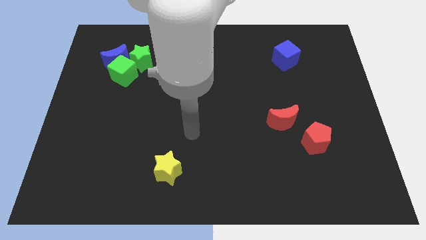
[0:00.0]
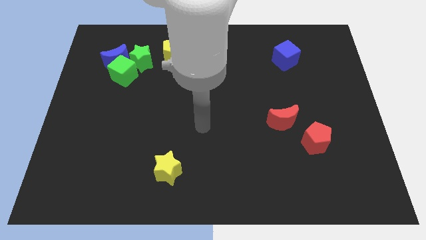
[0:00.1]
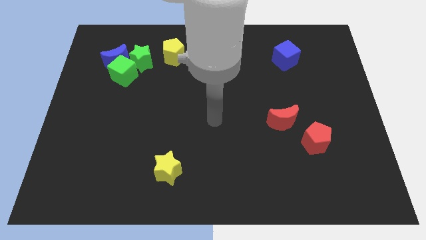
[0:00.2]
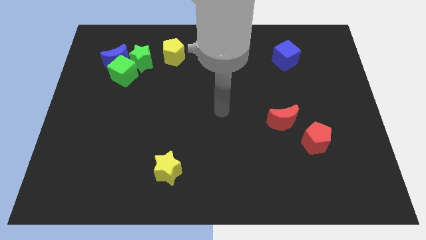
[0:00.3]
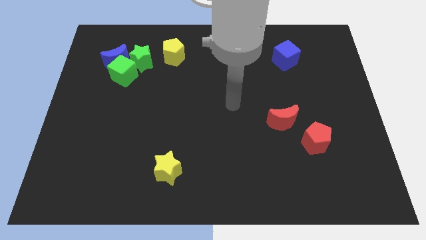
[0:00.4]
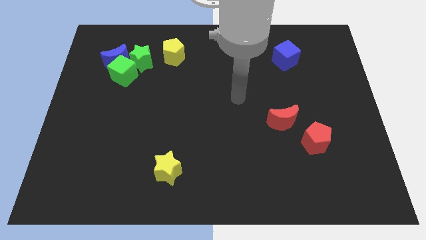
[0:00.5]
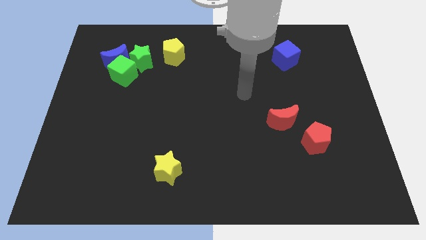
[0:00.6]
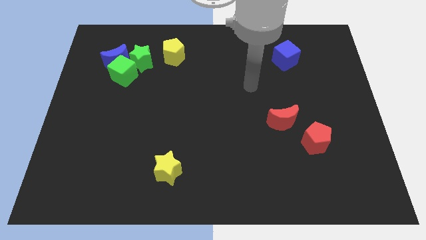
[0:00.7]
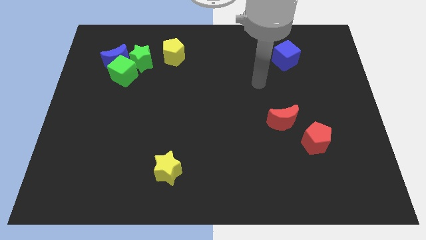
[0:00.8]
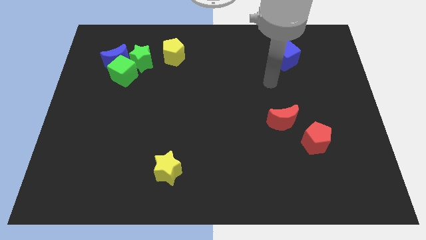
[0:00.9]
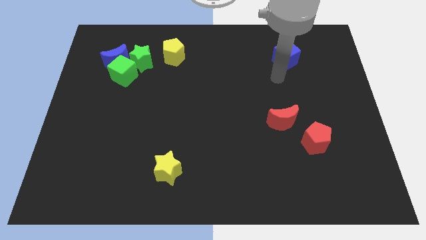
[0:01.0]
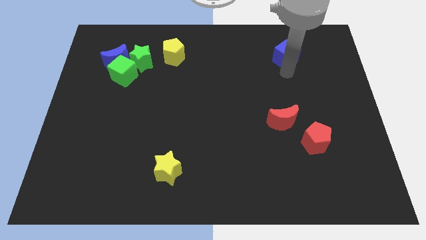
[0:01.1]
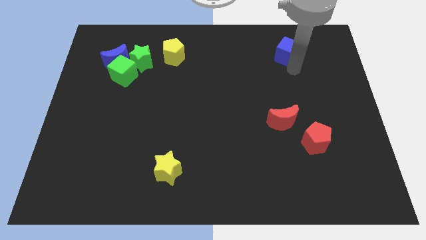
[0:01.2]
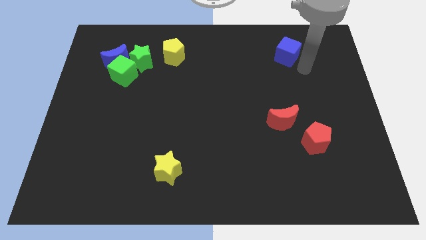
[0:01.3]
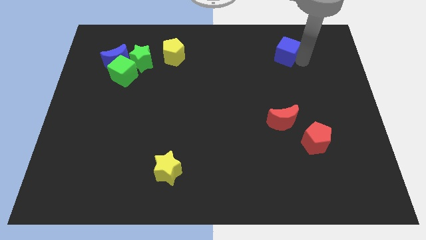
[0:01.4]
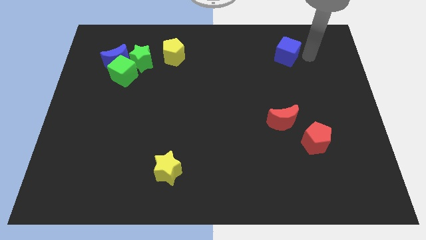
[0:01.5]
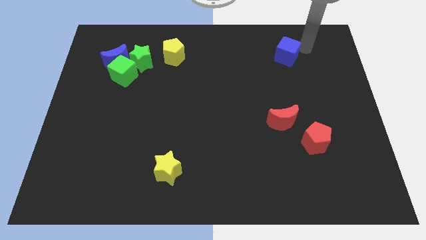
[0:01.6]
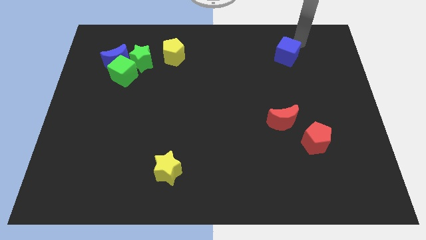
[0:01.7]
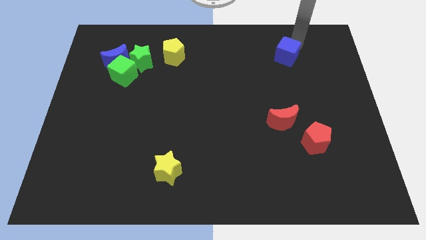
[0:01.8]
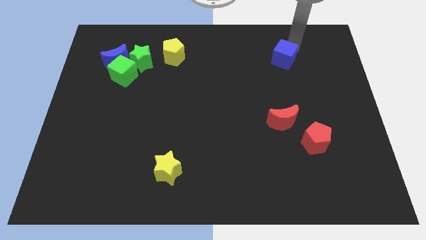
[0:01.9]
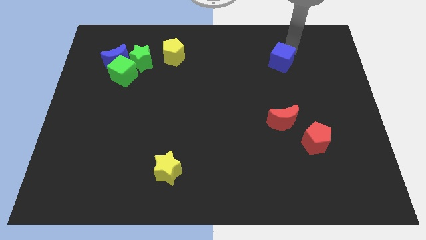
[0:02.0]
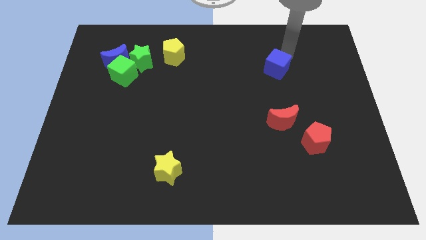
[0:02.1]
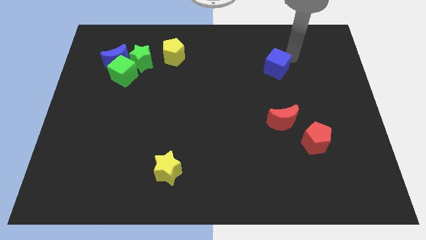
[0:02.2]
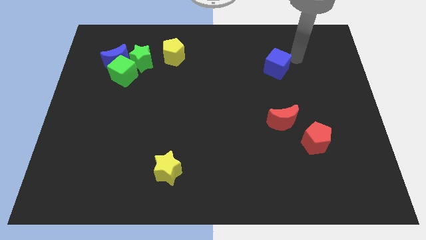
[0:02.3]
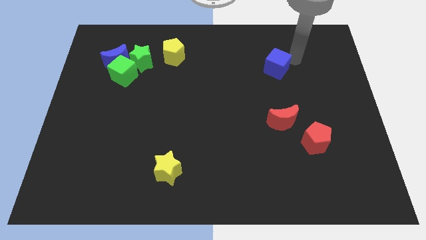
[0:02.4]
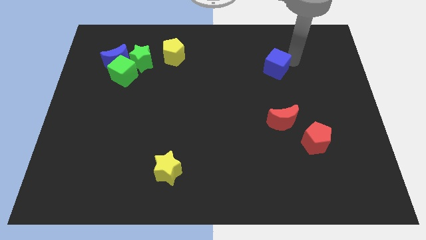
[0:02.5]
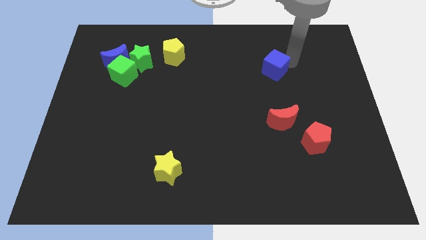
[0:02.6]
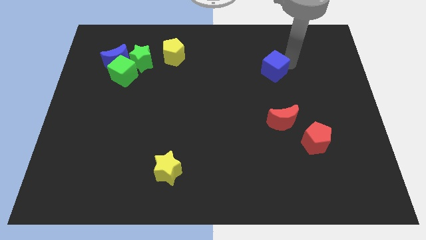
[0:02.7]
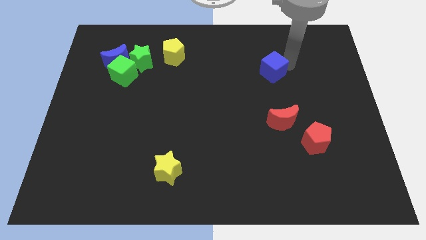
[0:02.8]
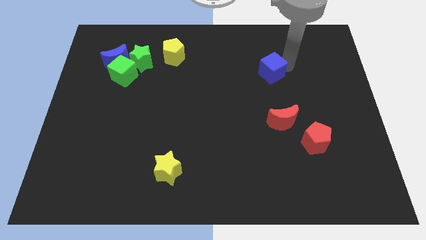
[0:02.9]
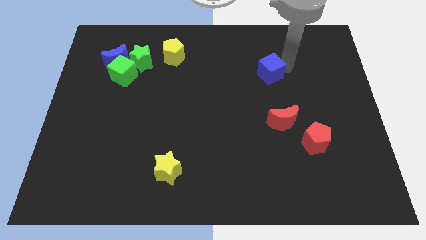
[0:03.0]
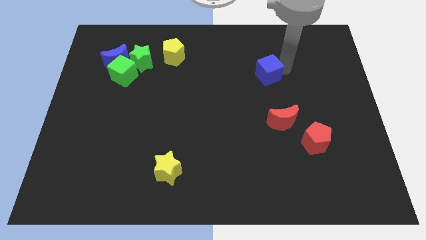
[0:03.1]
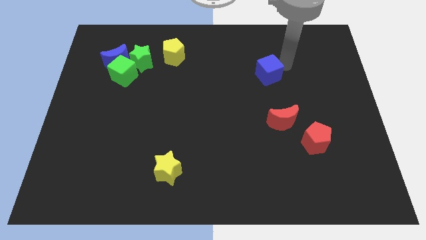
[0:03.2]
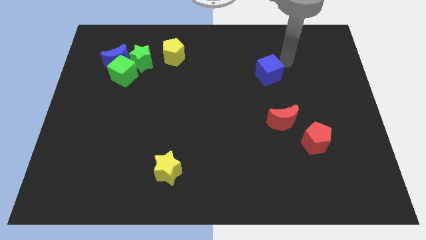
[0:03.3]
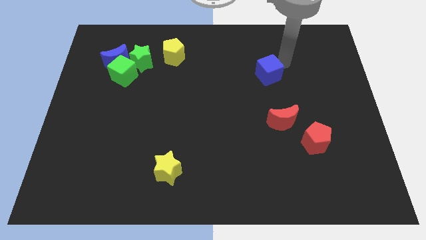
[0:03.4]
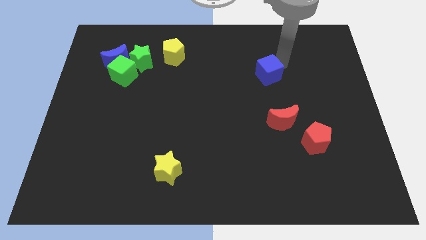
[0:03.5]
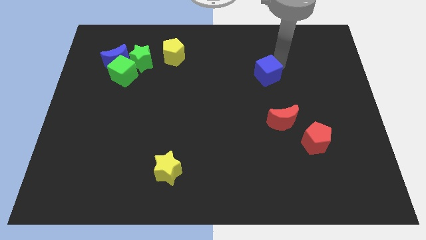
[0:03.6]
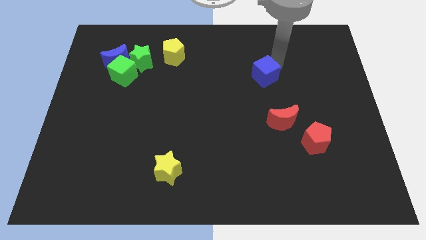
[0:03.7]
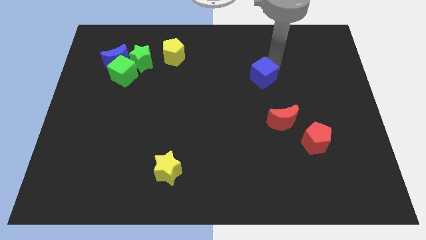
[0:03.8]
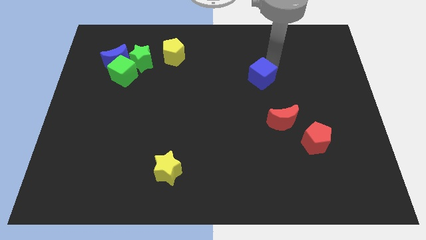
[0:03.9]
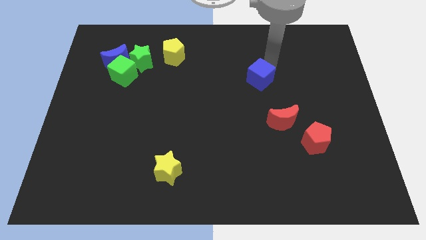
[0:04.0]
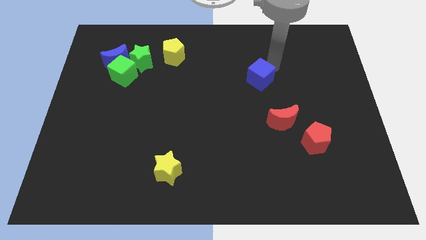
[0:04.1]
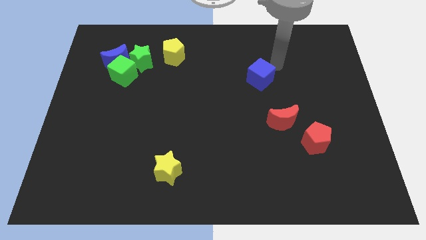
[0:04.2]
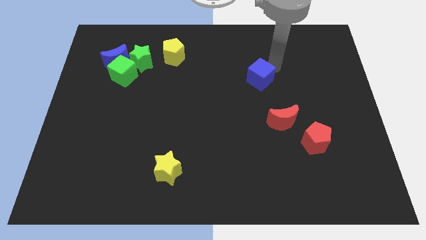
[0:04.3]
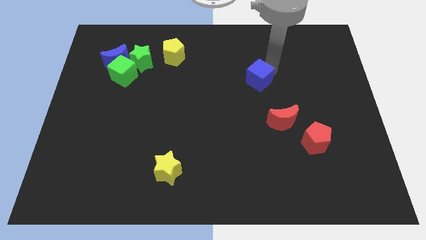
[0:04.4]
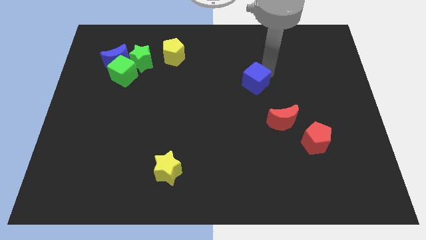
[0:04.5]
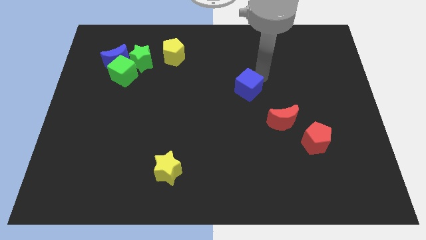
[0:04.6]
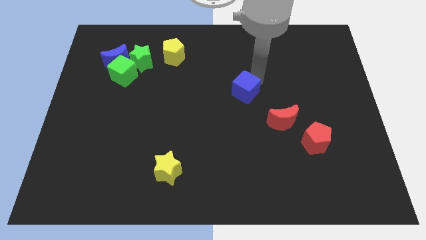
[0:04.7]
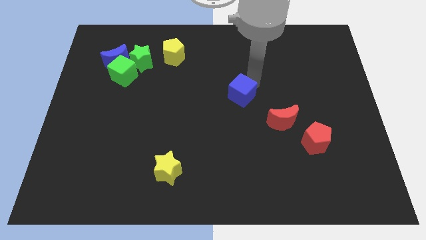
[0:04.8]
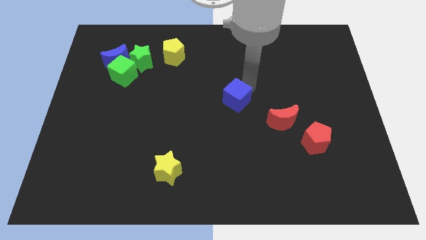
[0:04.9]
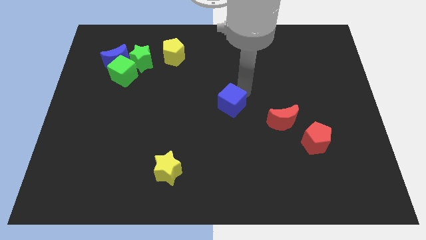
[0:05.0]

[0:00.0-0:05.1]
push the blue cube down and then to the left

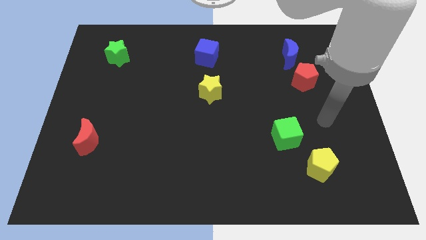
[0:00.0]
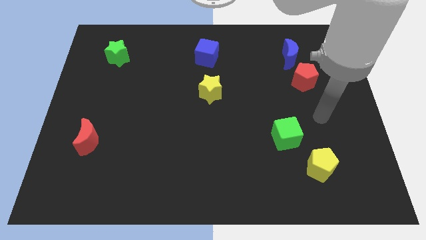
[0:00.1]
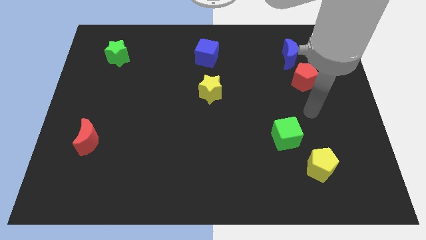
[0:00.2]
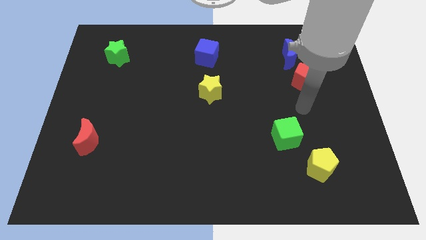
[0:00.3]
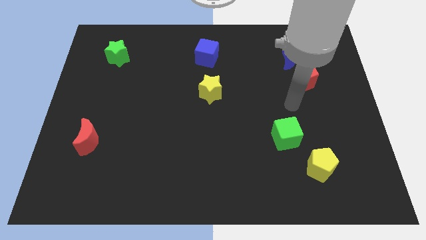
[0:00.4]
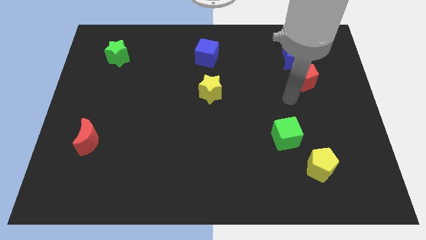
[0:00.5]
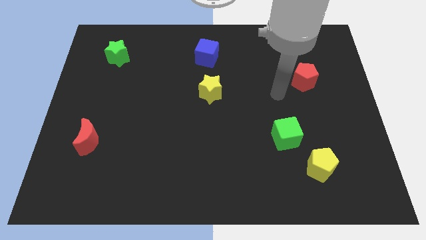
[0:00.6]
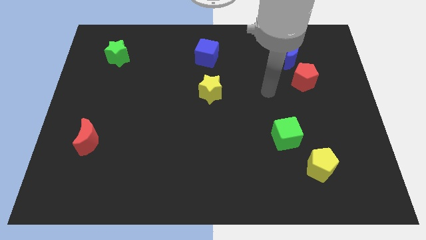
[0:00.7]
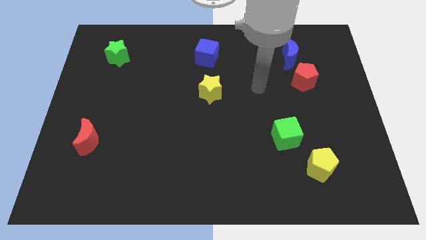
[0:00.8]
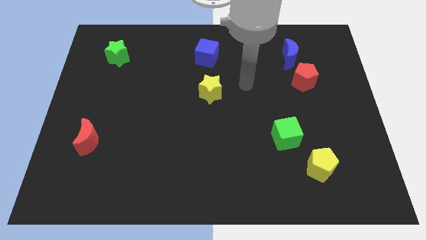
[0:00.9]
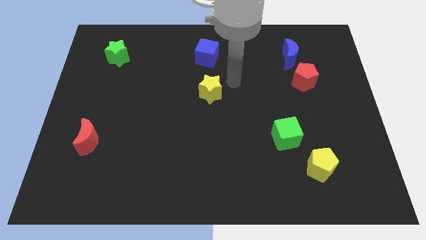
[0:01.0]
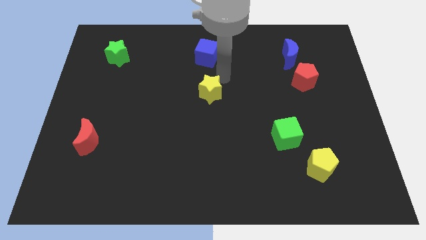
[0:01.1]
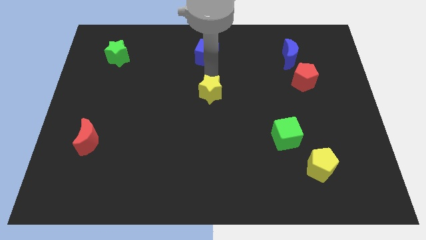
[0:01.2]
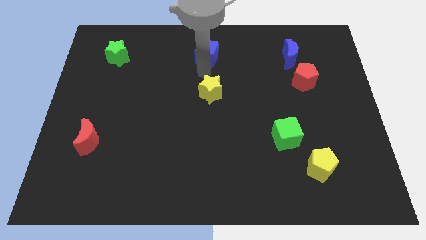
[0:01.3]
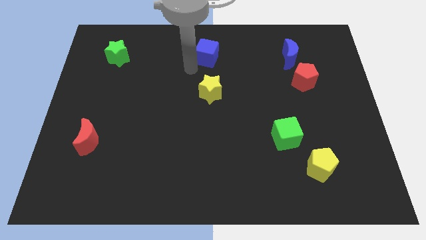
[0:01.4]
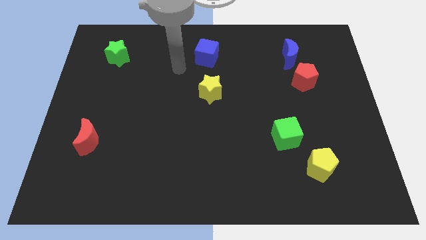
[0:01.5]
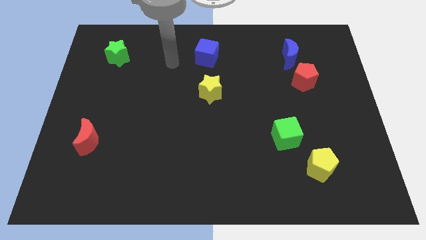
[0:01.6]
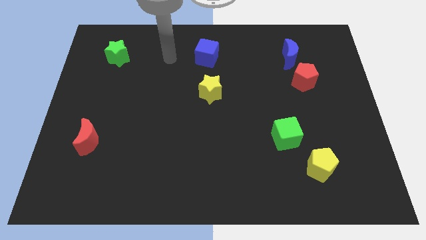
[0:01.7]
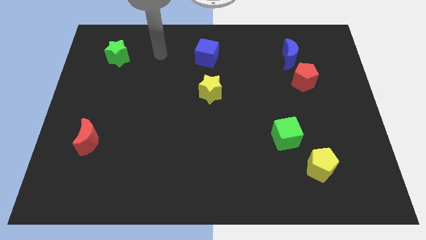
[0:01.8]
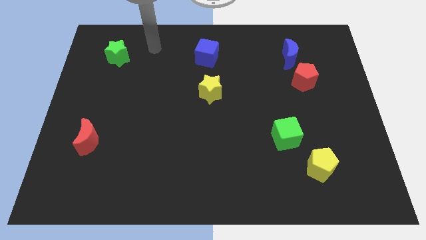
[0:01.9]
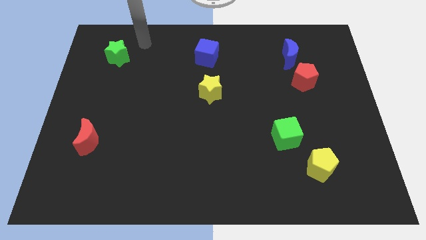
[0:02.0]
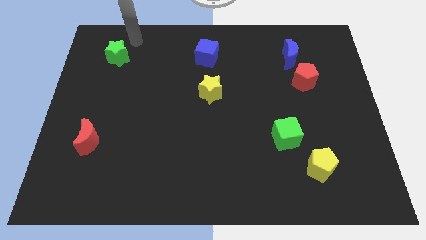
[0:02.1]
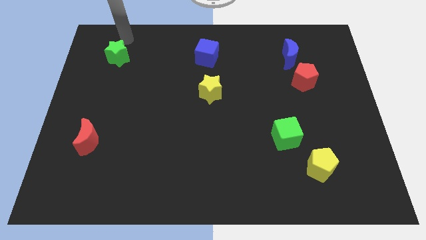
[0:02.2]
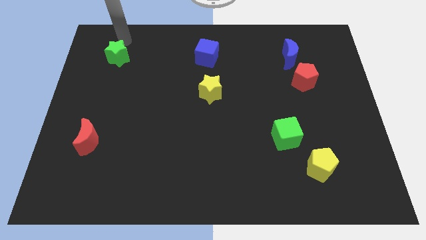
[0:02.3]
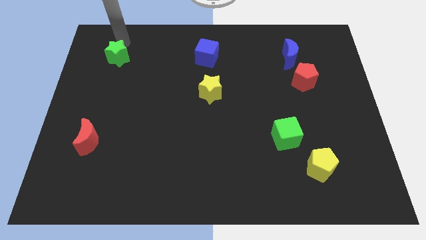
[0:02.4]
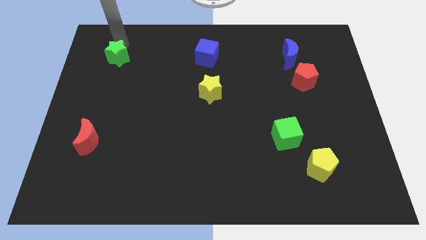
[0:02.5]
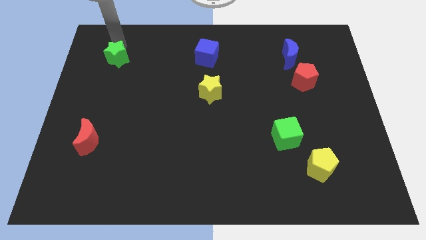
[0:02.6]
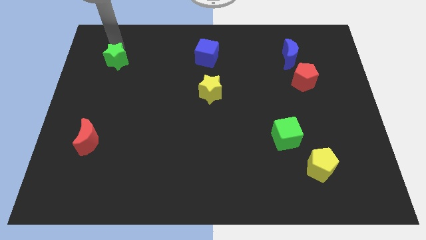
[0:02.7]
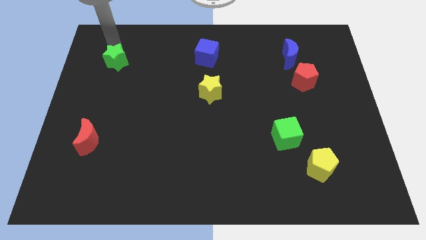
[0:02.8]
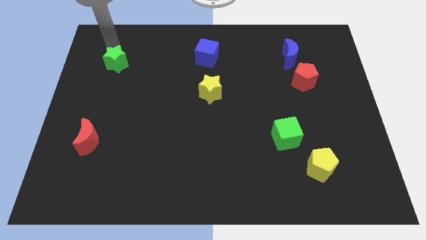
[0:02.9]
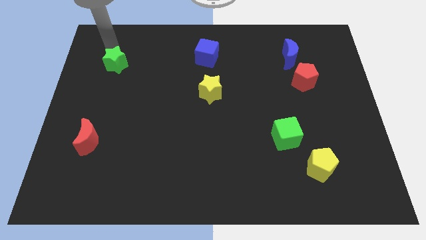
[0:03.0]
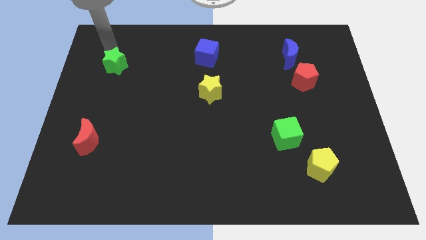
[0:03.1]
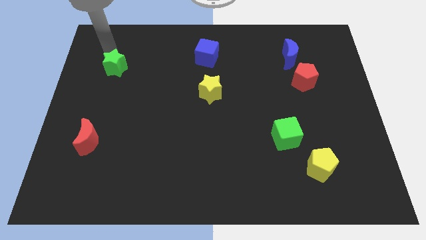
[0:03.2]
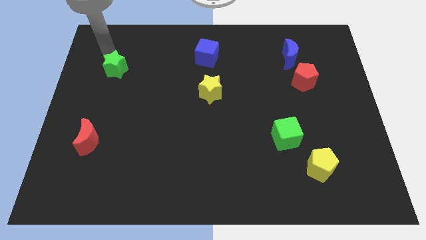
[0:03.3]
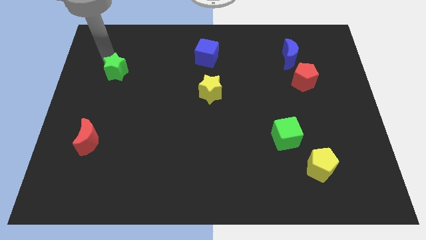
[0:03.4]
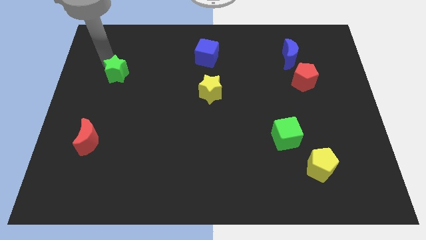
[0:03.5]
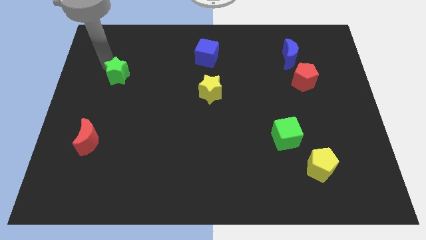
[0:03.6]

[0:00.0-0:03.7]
move the green star somewhat downwards
